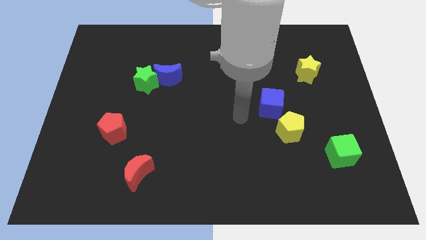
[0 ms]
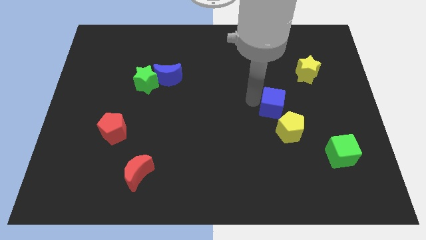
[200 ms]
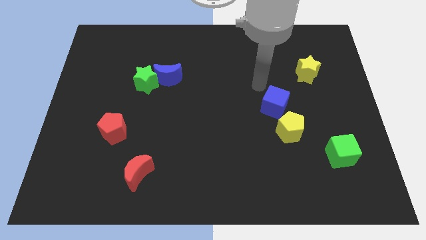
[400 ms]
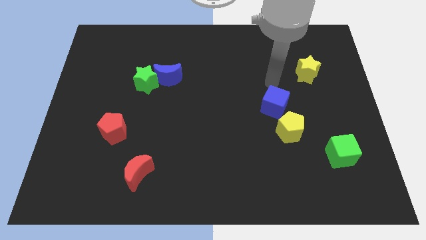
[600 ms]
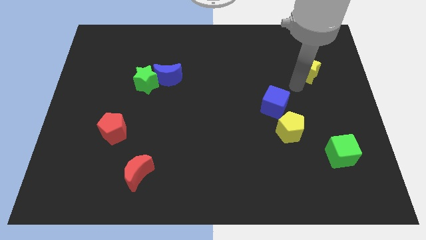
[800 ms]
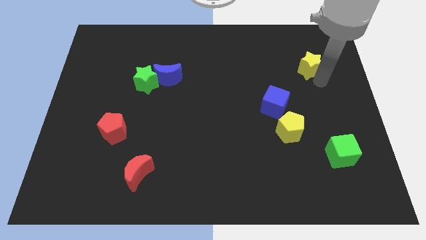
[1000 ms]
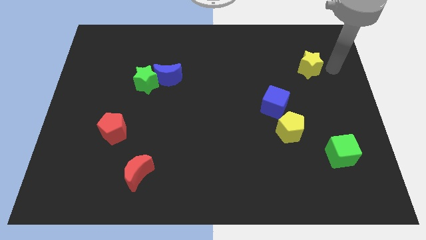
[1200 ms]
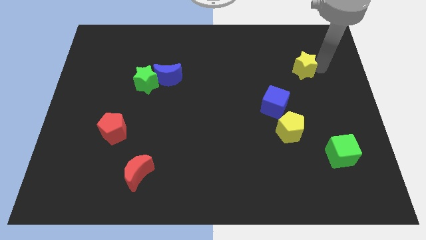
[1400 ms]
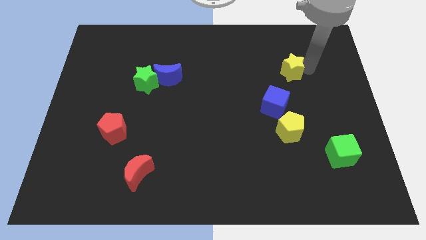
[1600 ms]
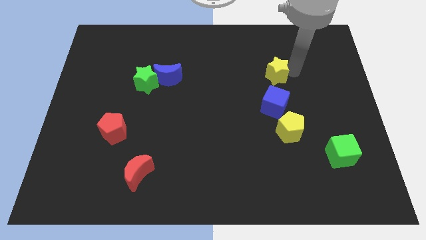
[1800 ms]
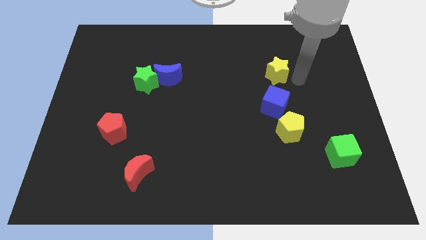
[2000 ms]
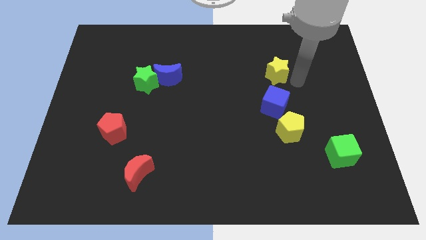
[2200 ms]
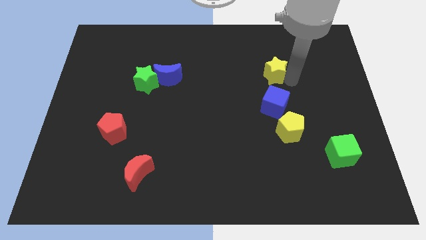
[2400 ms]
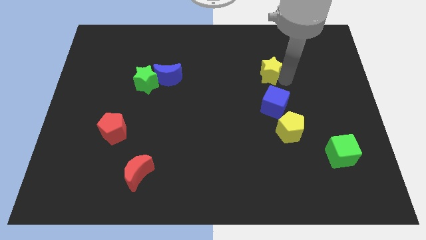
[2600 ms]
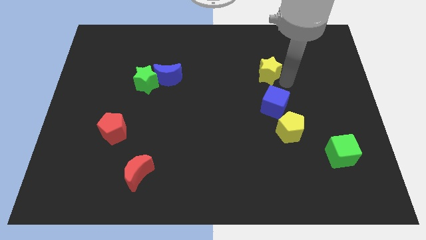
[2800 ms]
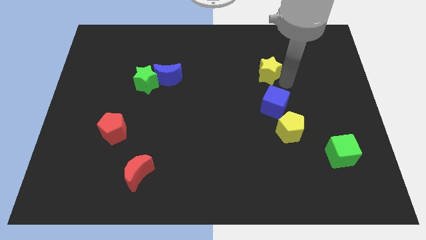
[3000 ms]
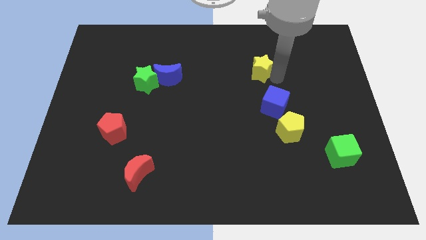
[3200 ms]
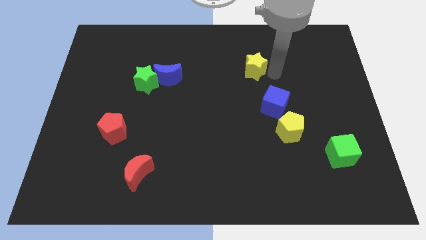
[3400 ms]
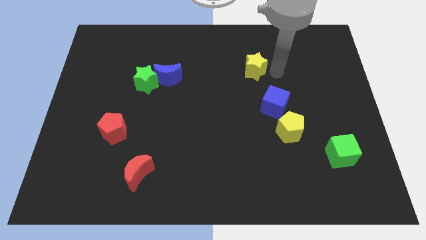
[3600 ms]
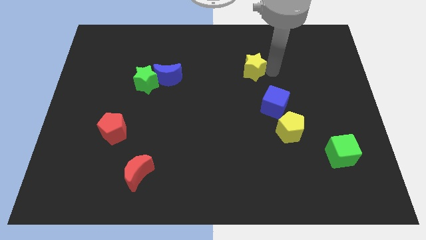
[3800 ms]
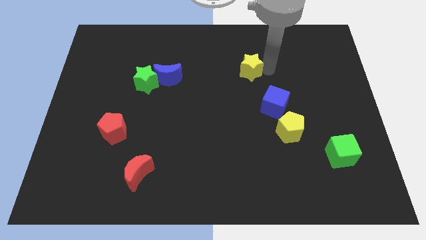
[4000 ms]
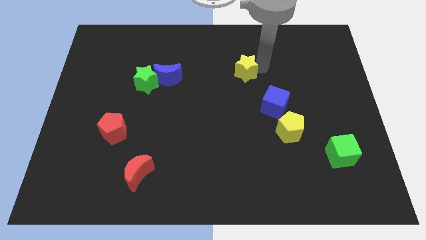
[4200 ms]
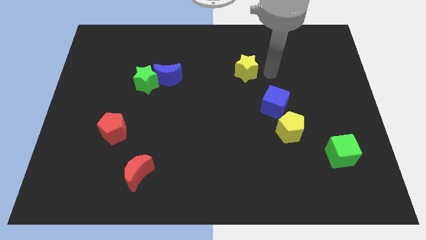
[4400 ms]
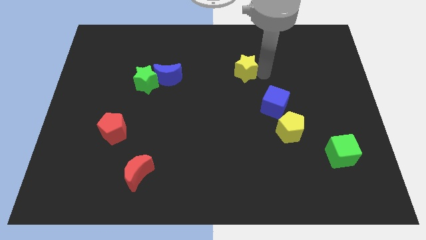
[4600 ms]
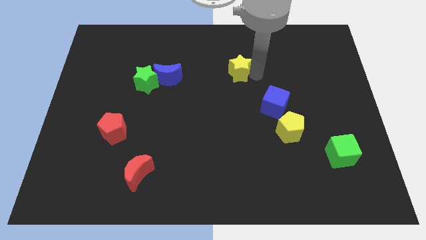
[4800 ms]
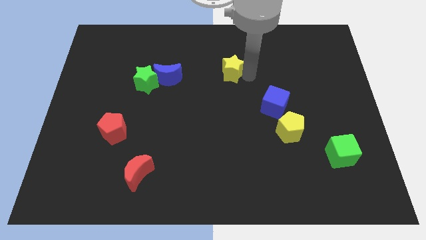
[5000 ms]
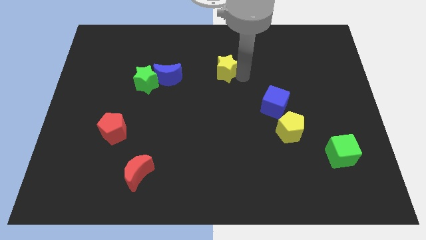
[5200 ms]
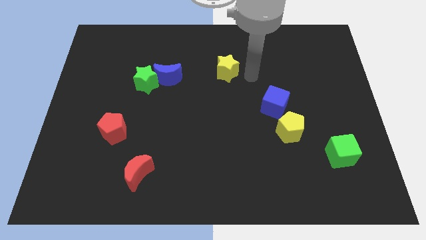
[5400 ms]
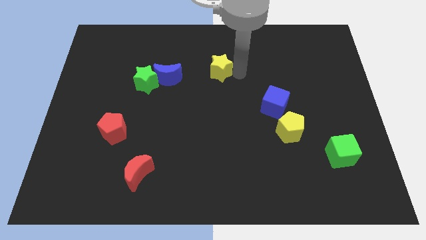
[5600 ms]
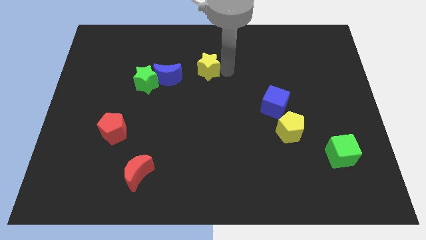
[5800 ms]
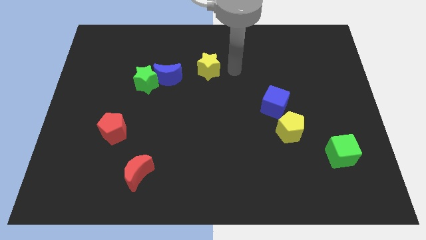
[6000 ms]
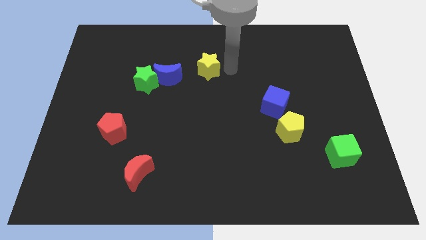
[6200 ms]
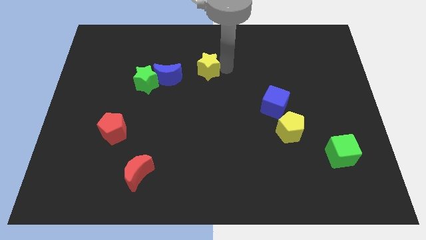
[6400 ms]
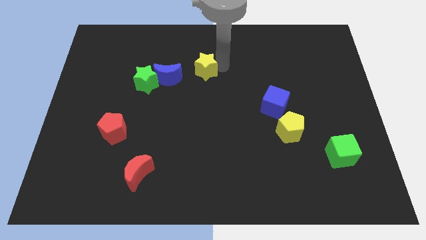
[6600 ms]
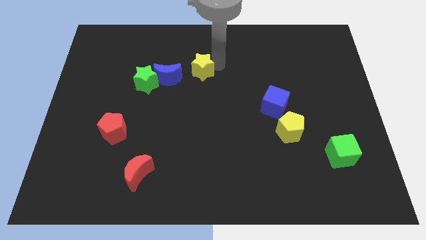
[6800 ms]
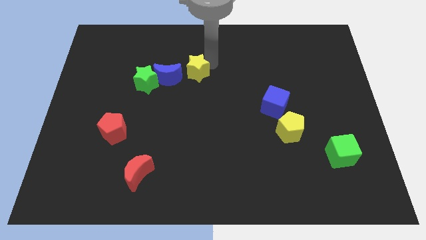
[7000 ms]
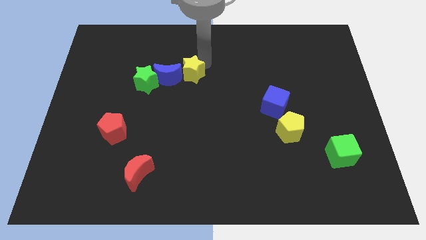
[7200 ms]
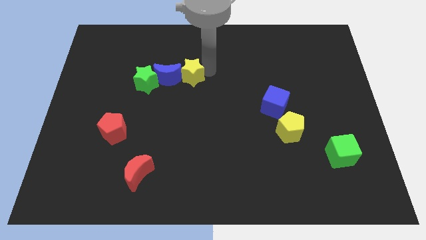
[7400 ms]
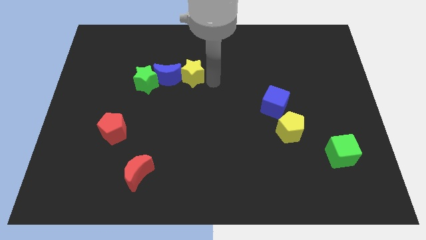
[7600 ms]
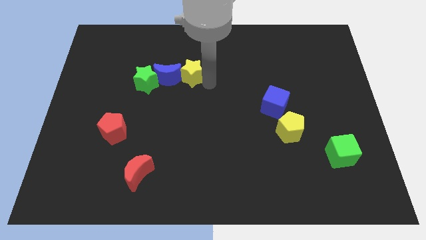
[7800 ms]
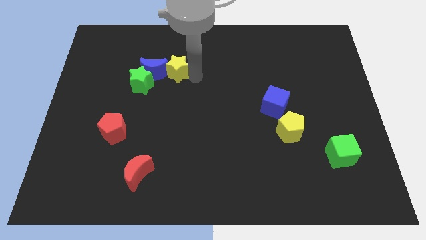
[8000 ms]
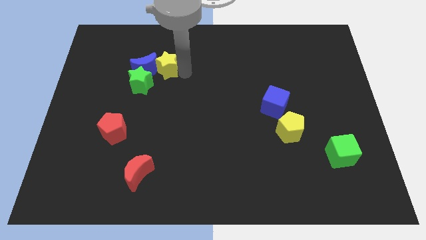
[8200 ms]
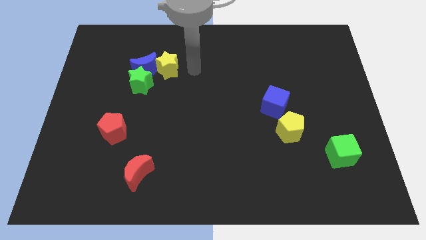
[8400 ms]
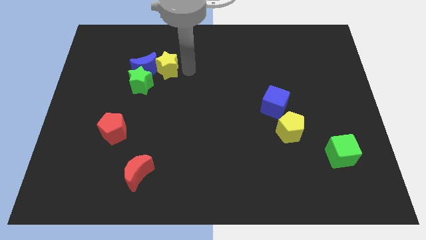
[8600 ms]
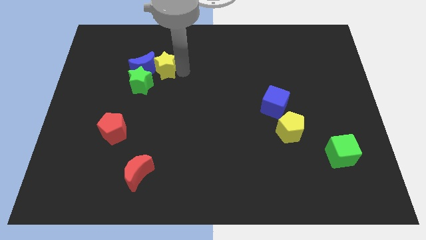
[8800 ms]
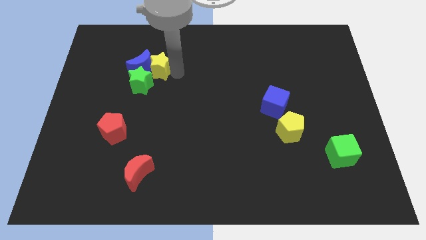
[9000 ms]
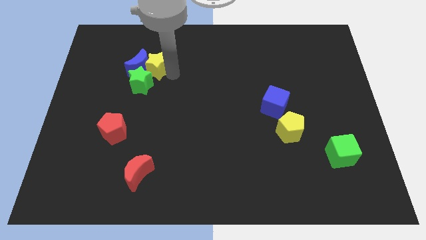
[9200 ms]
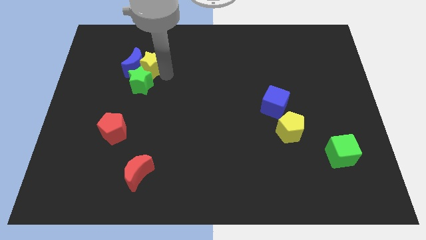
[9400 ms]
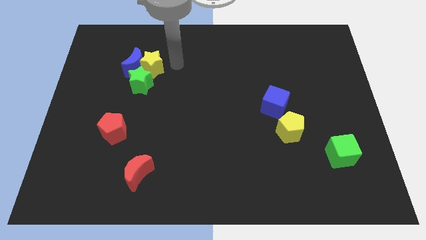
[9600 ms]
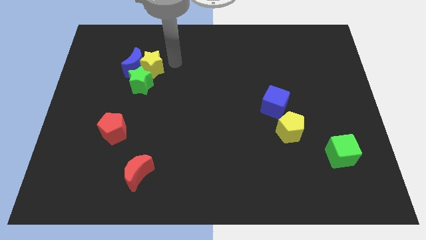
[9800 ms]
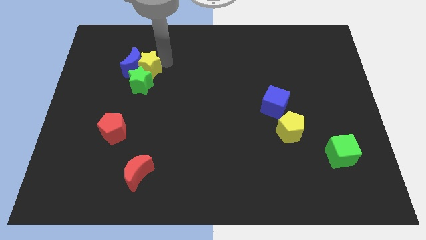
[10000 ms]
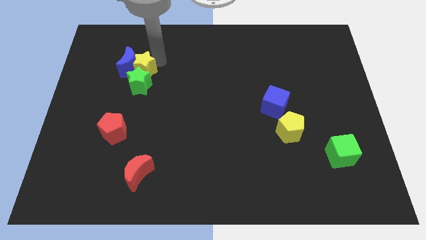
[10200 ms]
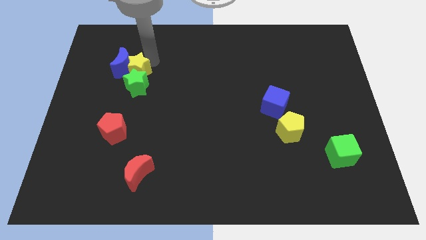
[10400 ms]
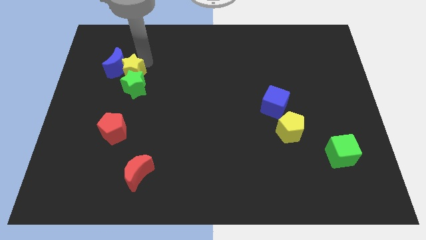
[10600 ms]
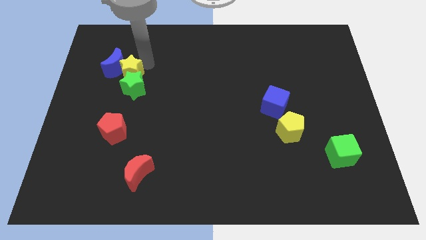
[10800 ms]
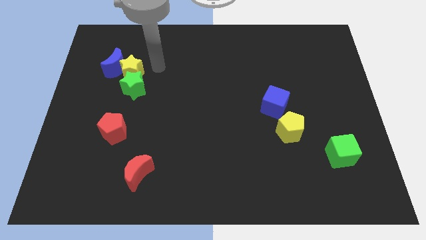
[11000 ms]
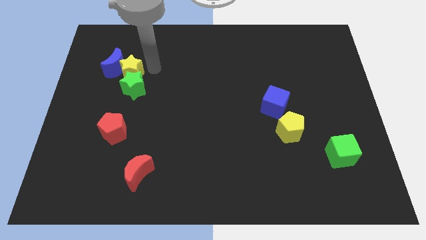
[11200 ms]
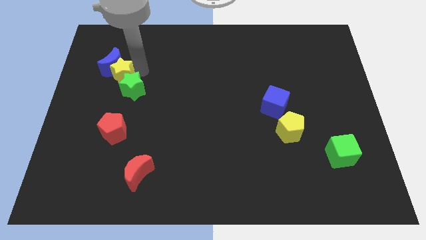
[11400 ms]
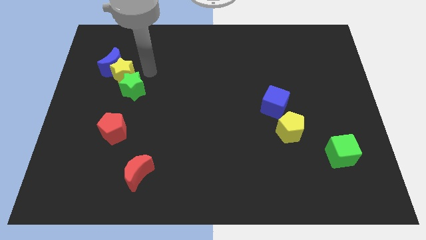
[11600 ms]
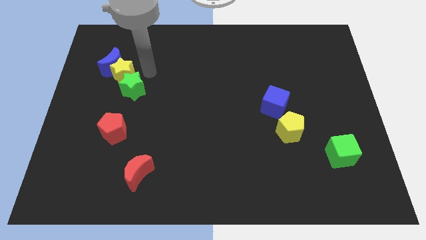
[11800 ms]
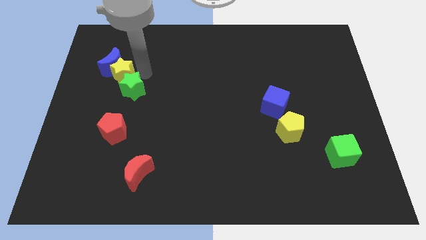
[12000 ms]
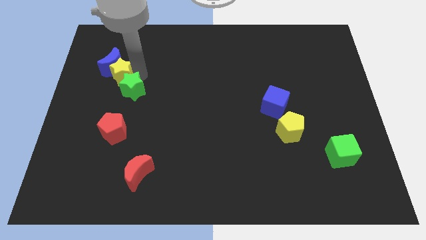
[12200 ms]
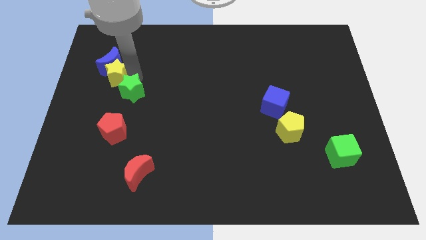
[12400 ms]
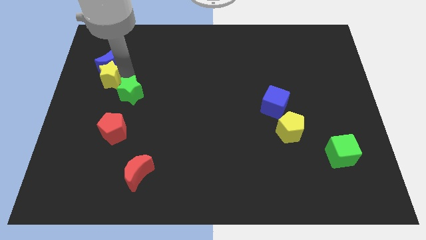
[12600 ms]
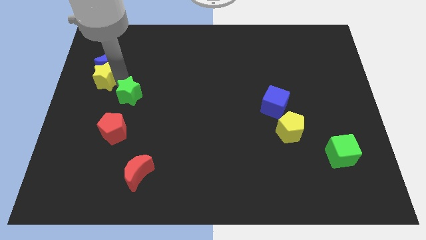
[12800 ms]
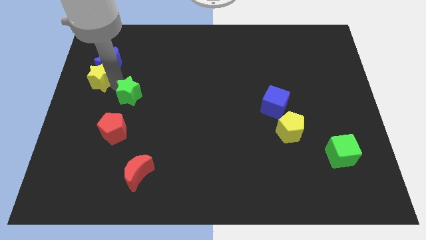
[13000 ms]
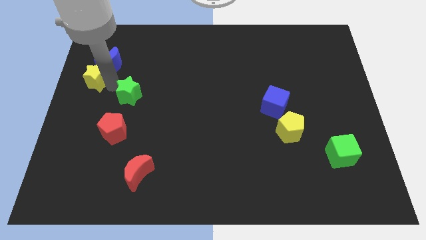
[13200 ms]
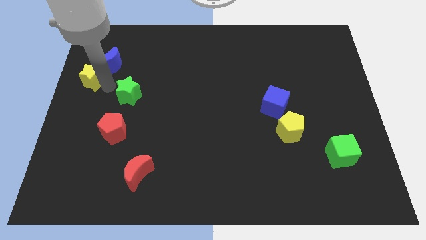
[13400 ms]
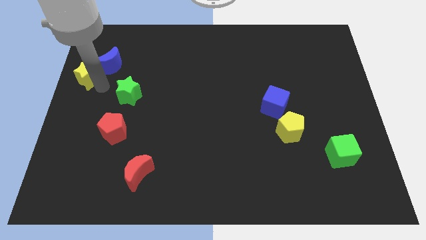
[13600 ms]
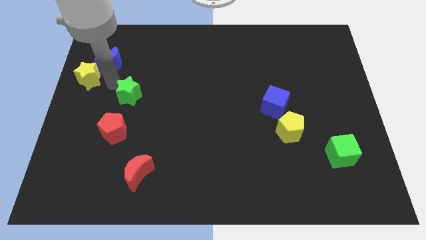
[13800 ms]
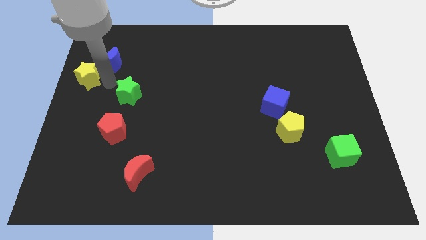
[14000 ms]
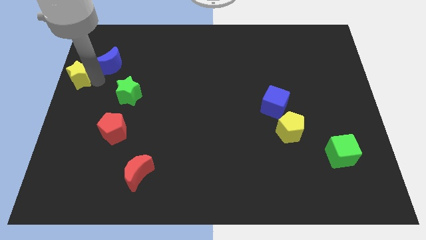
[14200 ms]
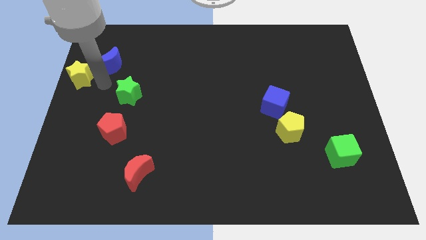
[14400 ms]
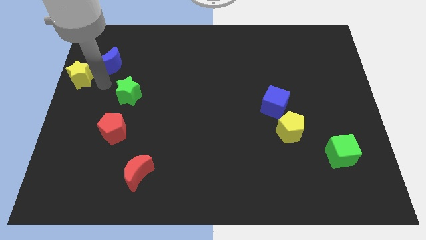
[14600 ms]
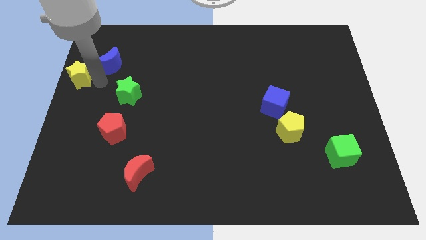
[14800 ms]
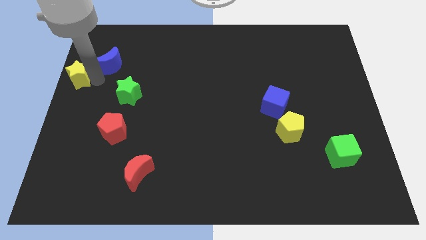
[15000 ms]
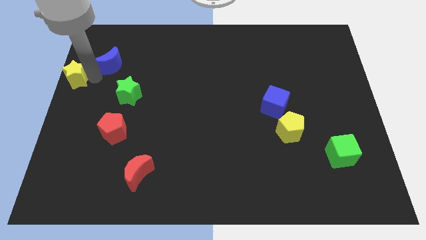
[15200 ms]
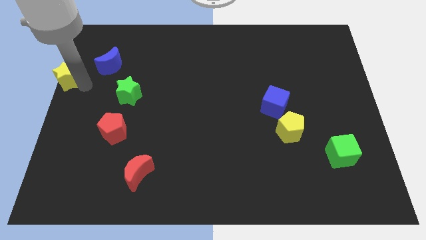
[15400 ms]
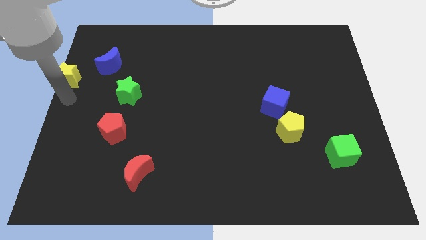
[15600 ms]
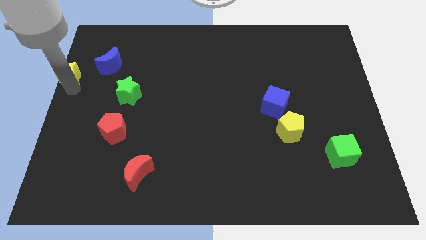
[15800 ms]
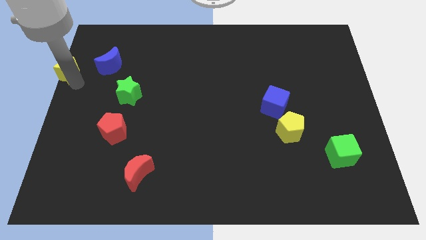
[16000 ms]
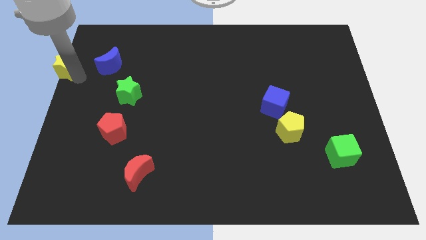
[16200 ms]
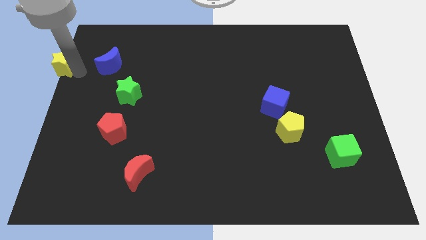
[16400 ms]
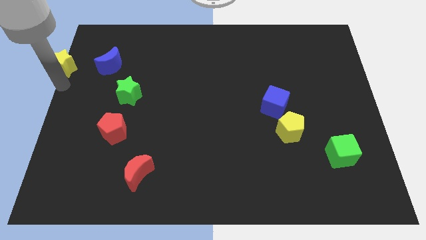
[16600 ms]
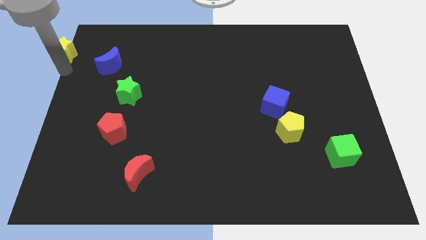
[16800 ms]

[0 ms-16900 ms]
push the yellow star to the top left of the board
